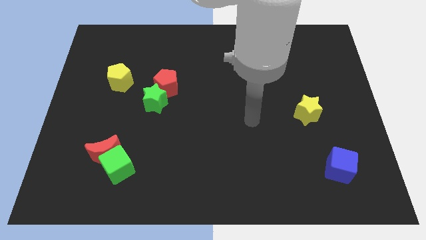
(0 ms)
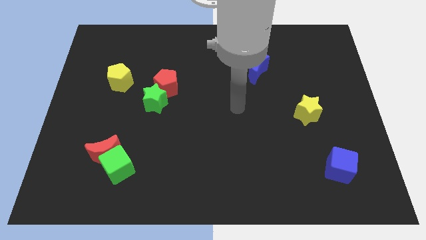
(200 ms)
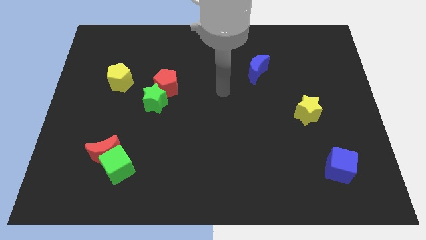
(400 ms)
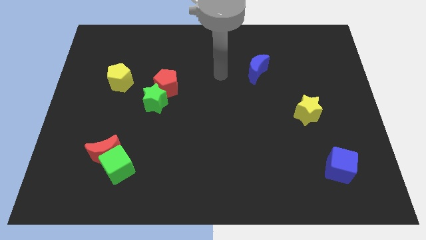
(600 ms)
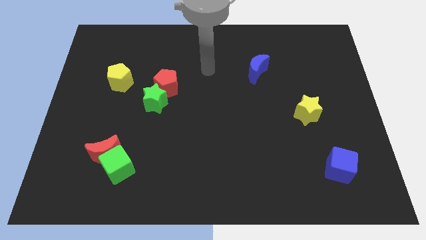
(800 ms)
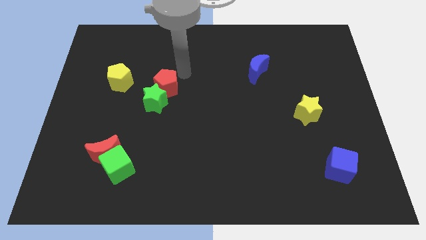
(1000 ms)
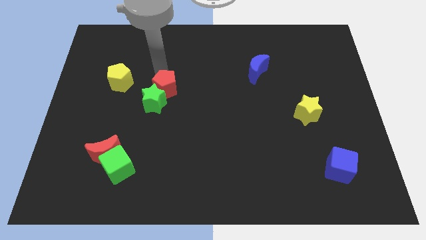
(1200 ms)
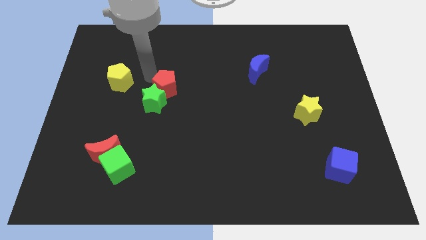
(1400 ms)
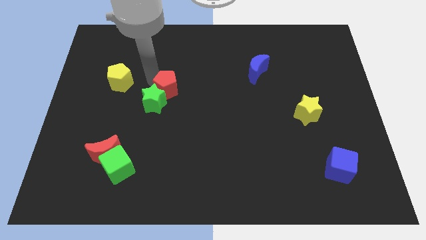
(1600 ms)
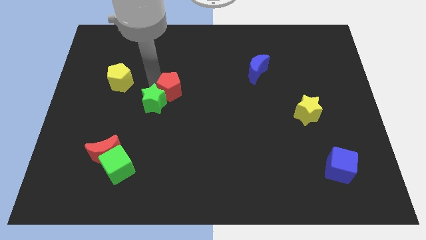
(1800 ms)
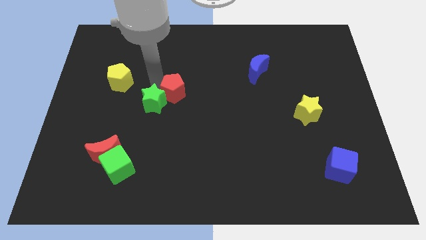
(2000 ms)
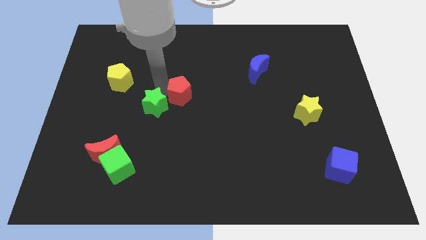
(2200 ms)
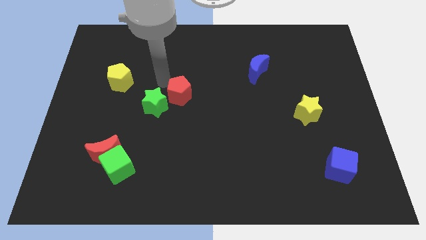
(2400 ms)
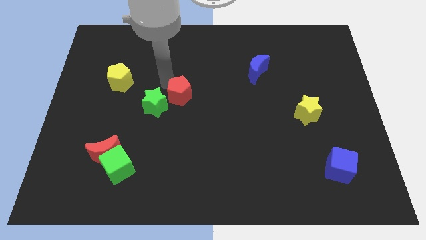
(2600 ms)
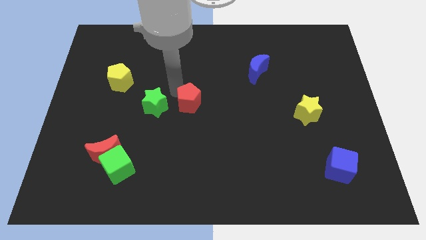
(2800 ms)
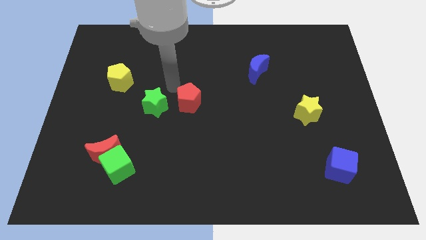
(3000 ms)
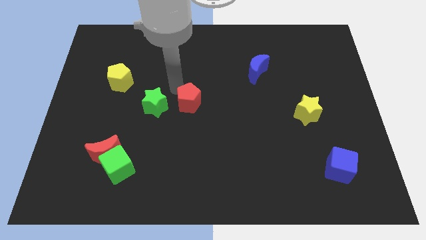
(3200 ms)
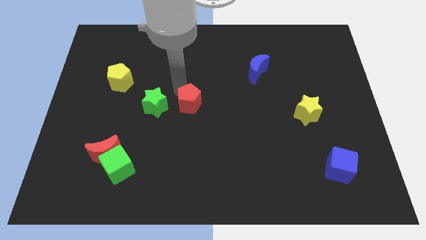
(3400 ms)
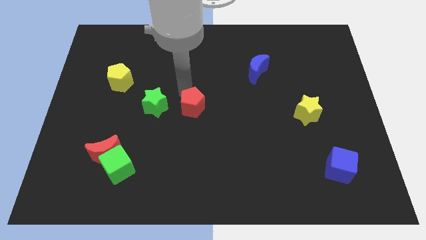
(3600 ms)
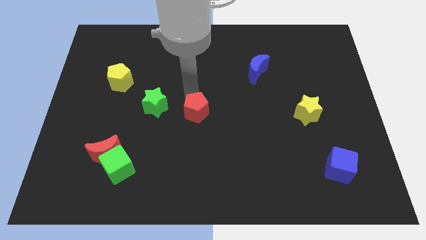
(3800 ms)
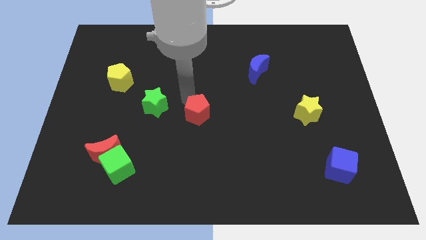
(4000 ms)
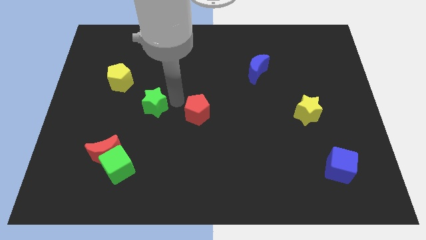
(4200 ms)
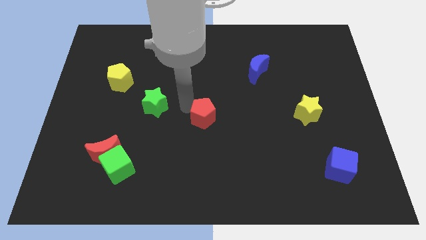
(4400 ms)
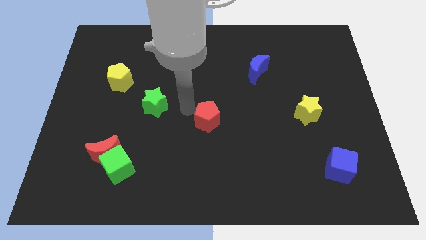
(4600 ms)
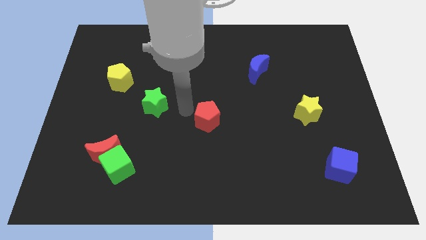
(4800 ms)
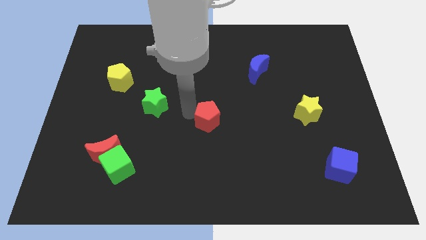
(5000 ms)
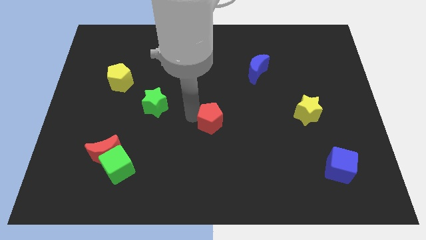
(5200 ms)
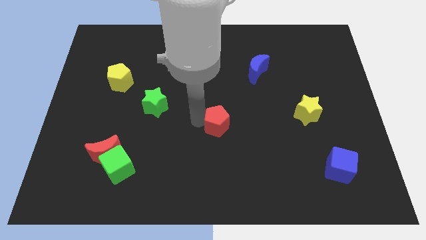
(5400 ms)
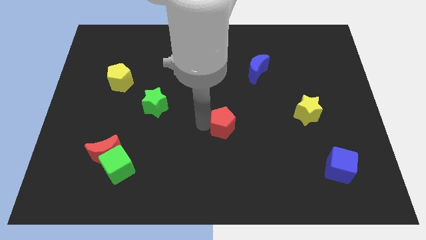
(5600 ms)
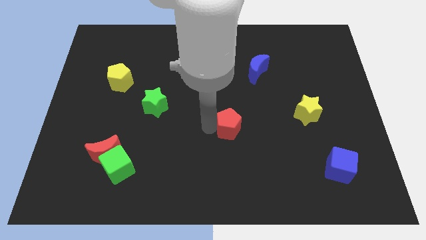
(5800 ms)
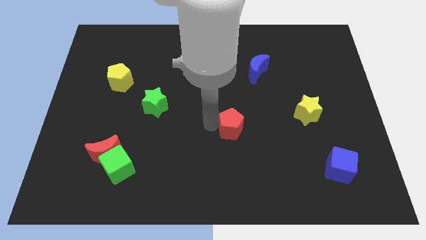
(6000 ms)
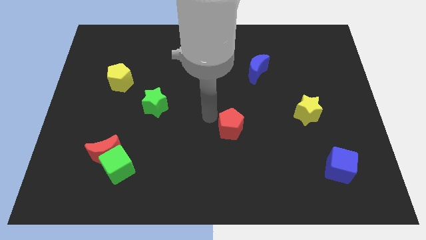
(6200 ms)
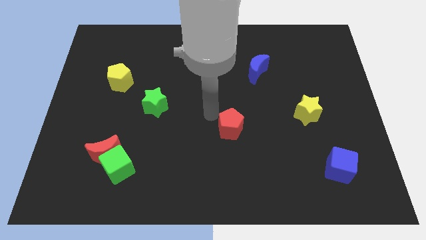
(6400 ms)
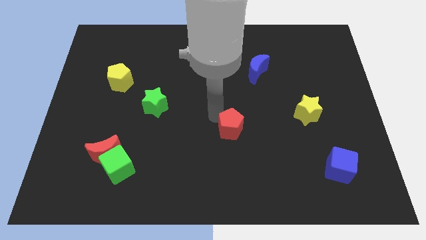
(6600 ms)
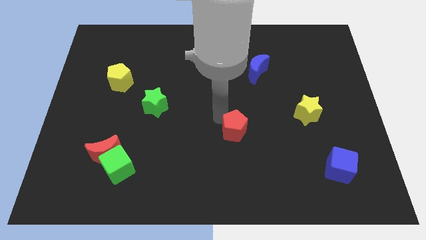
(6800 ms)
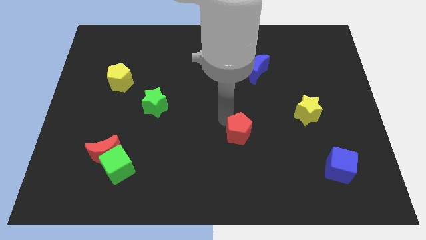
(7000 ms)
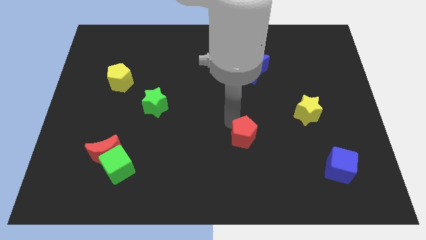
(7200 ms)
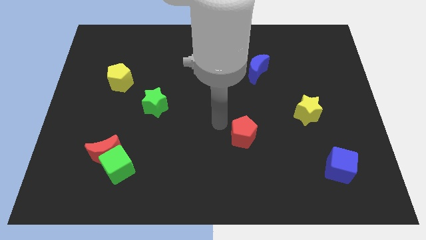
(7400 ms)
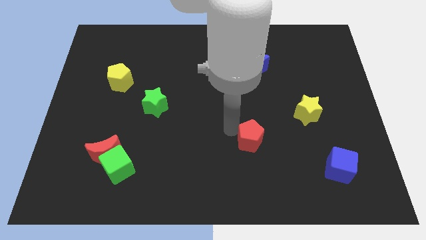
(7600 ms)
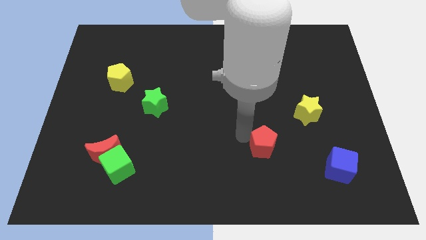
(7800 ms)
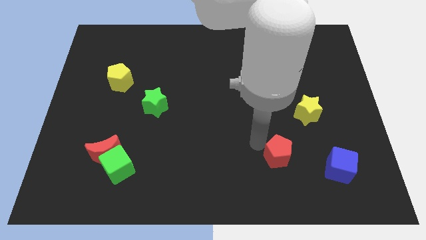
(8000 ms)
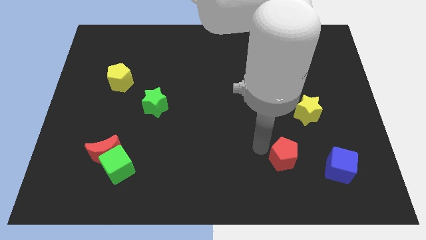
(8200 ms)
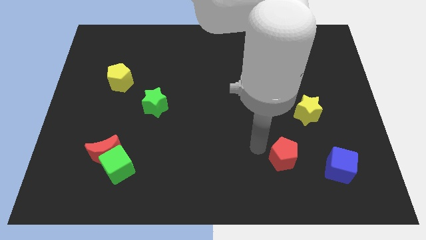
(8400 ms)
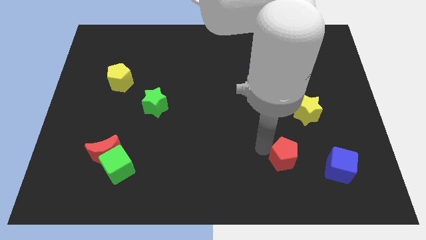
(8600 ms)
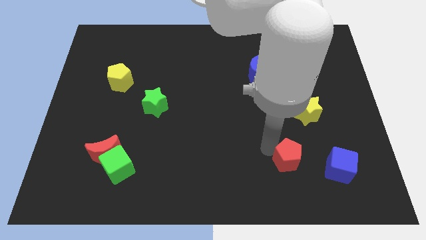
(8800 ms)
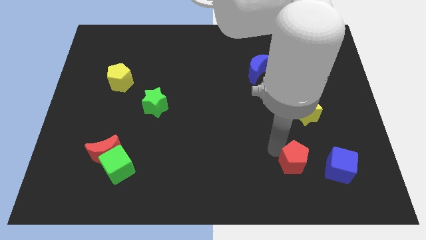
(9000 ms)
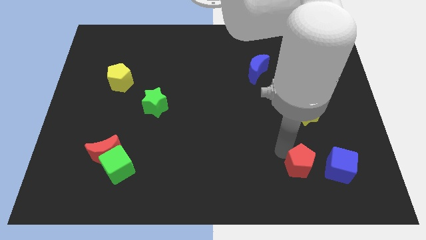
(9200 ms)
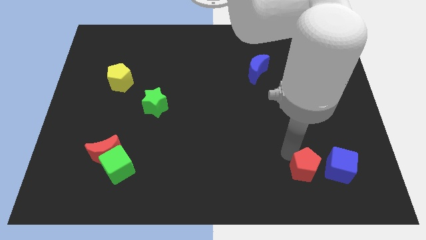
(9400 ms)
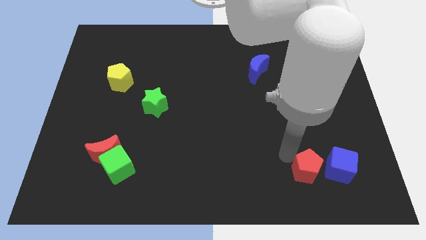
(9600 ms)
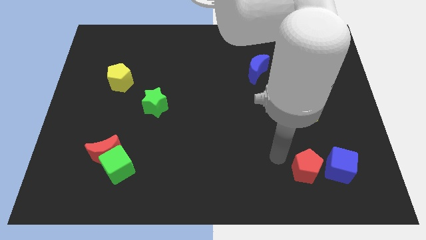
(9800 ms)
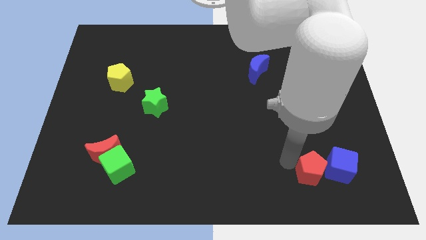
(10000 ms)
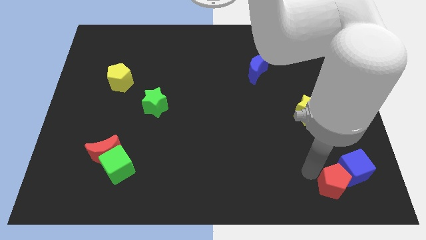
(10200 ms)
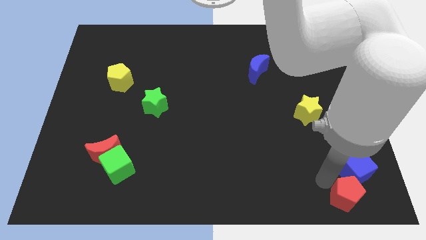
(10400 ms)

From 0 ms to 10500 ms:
put the red pentagon to the lower right corner

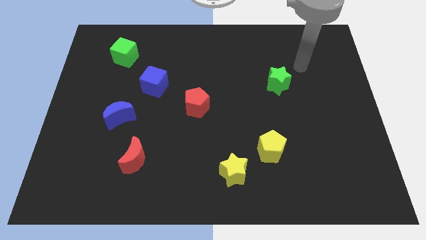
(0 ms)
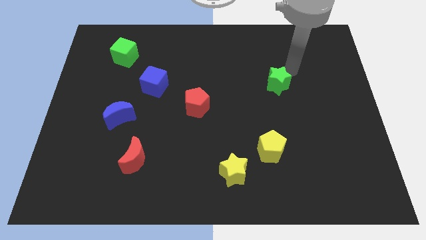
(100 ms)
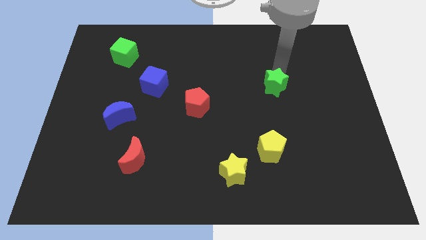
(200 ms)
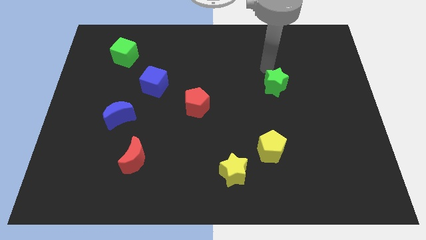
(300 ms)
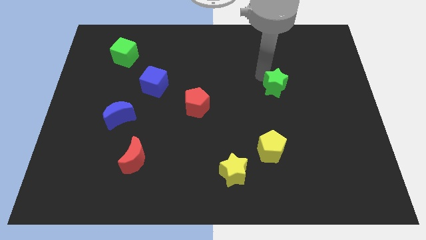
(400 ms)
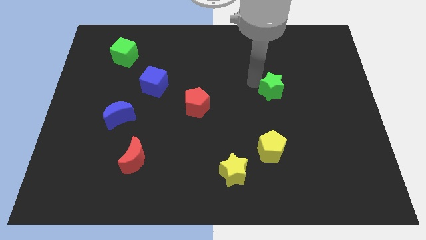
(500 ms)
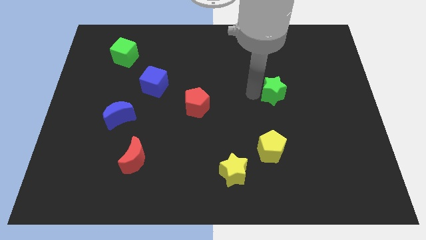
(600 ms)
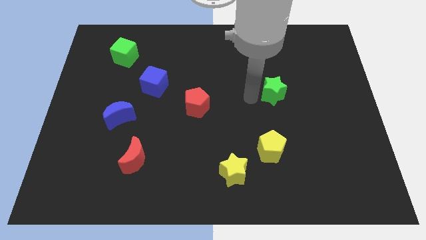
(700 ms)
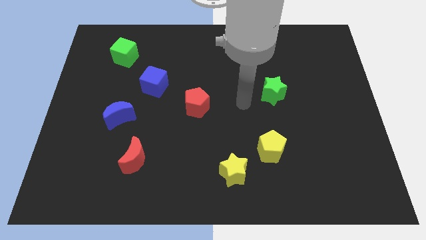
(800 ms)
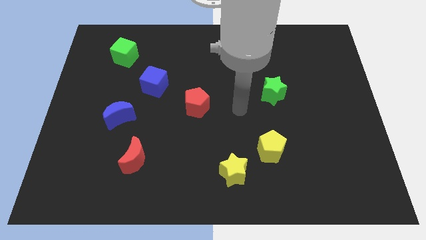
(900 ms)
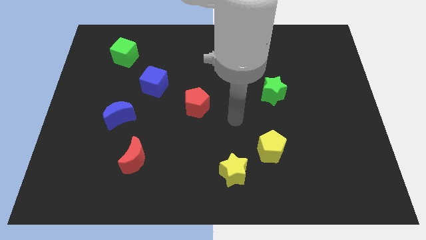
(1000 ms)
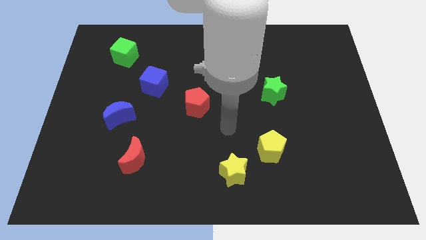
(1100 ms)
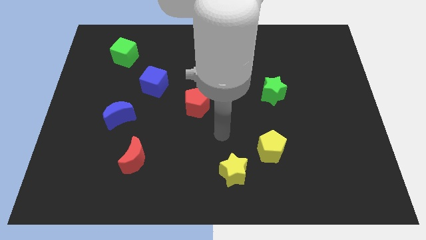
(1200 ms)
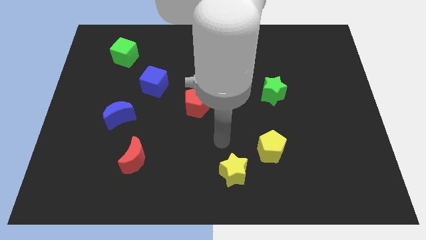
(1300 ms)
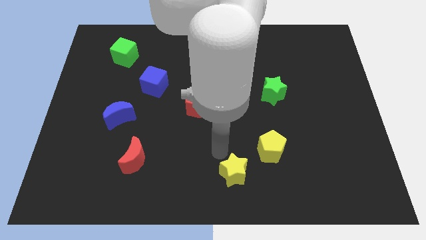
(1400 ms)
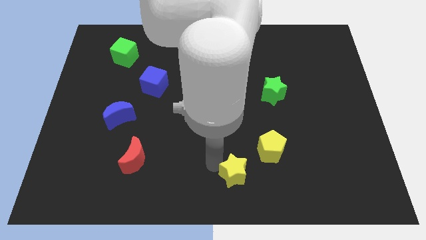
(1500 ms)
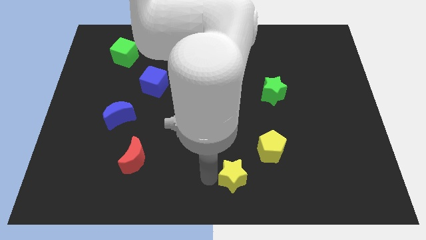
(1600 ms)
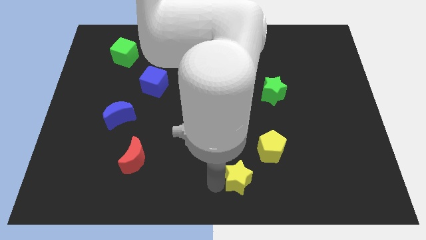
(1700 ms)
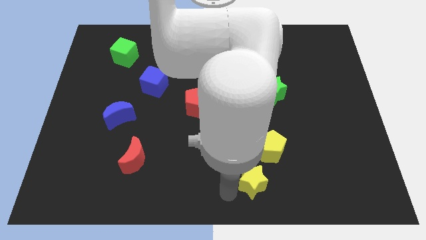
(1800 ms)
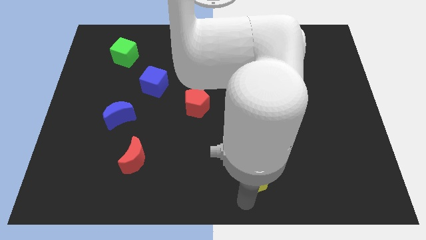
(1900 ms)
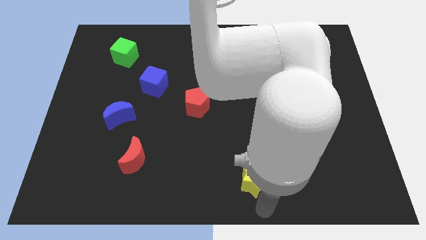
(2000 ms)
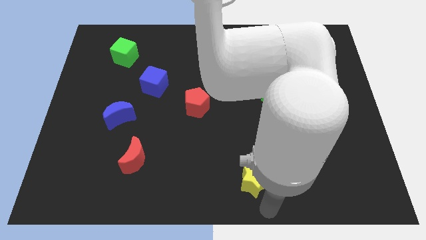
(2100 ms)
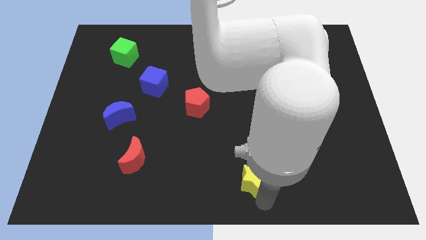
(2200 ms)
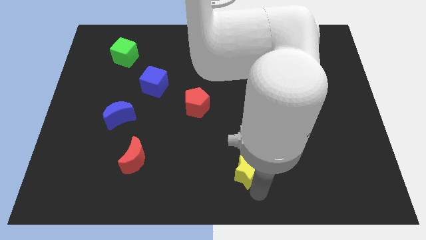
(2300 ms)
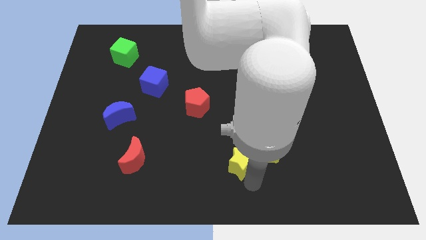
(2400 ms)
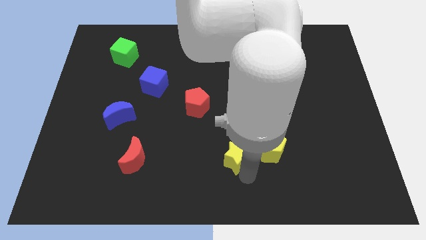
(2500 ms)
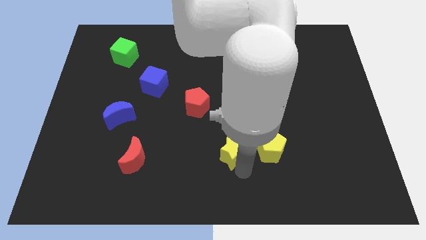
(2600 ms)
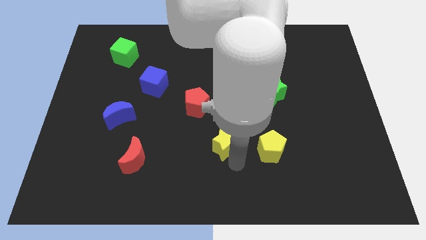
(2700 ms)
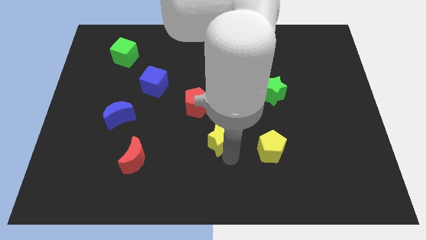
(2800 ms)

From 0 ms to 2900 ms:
push the yellow star to the middle
